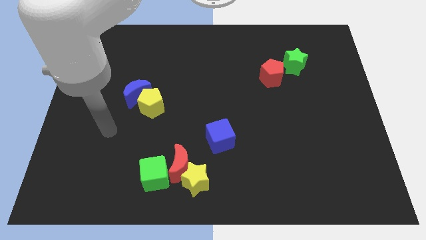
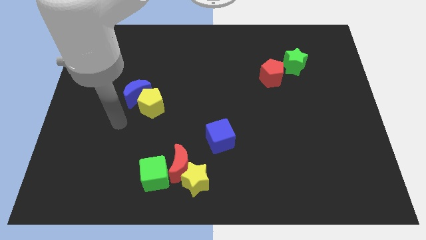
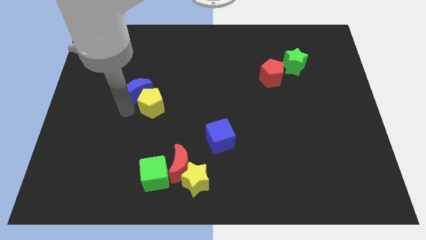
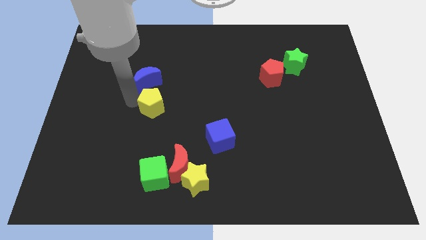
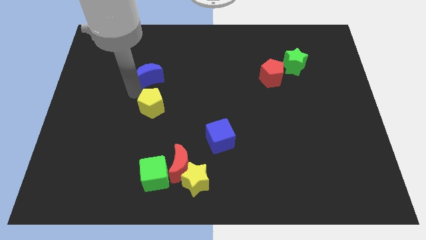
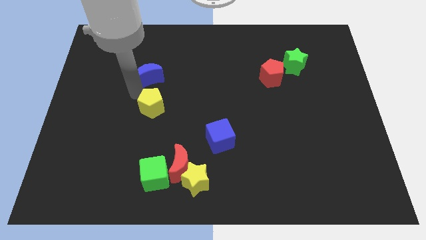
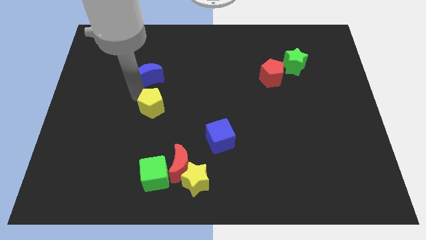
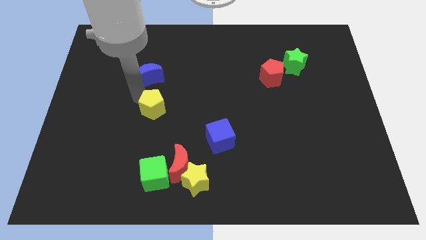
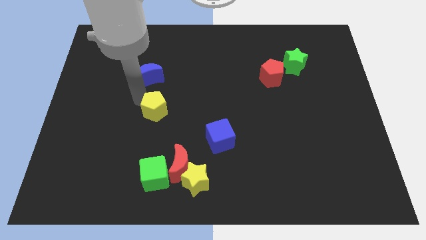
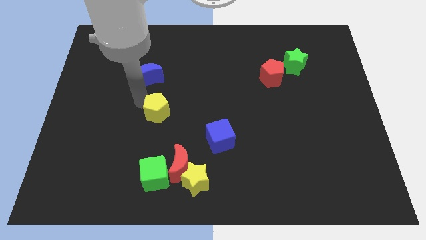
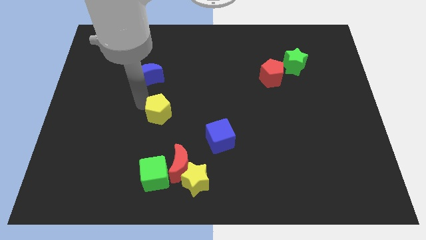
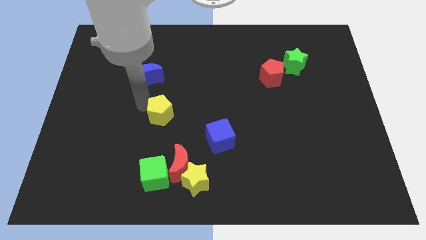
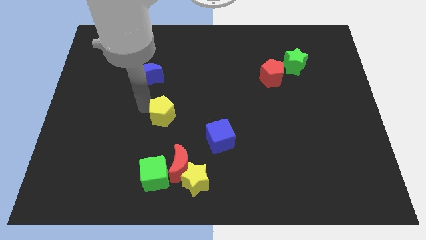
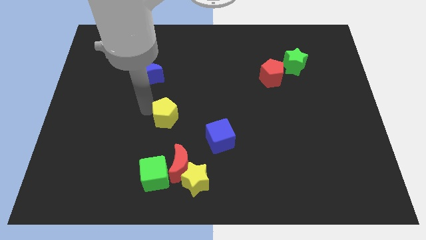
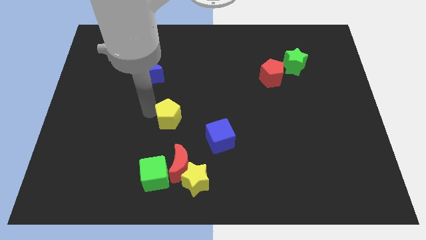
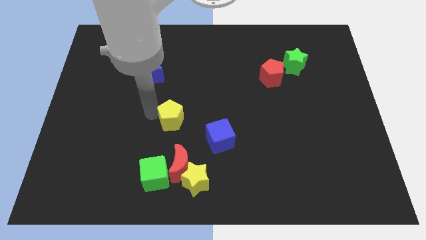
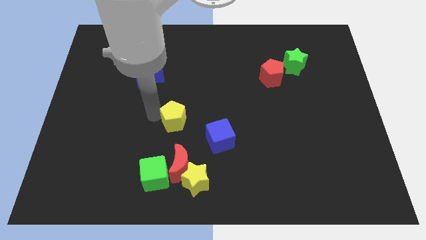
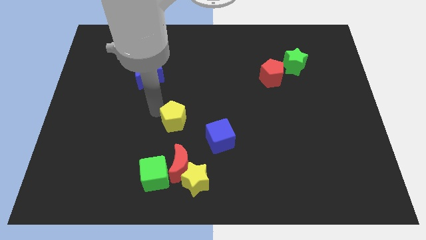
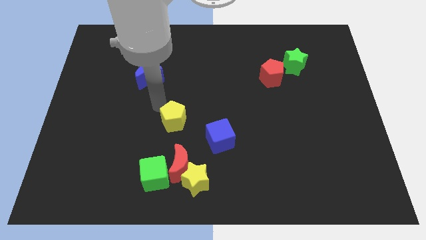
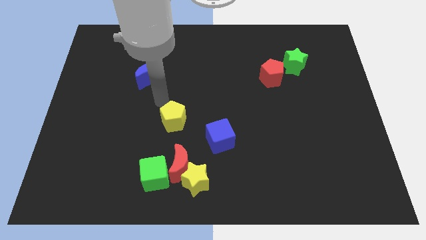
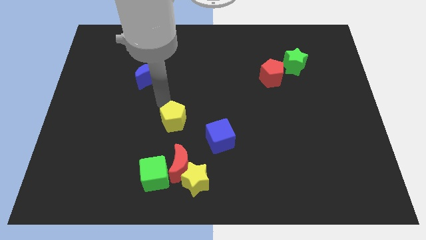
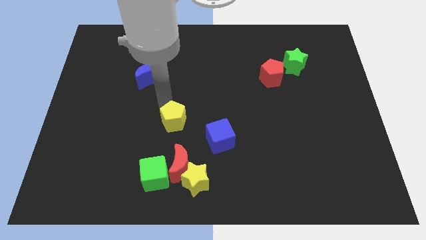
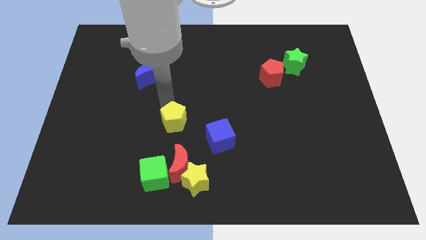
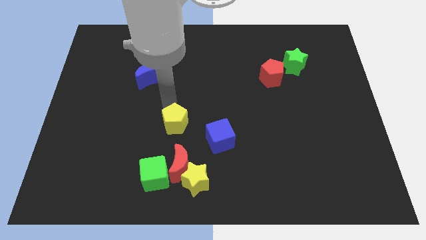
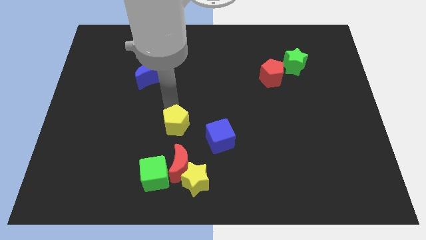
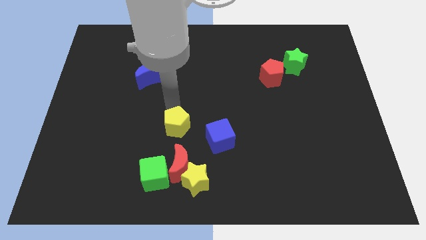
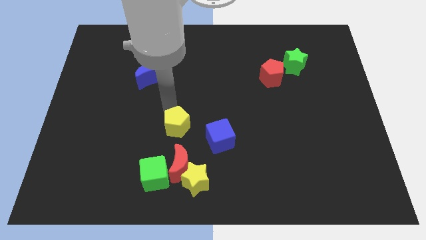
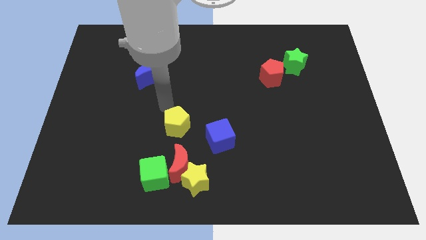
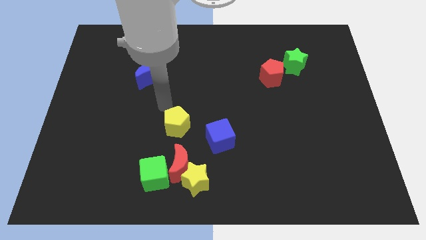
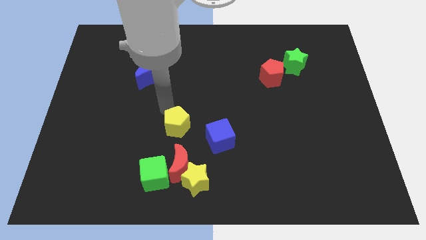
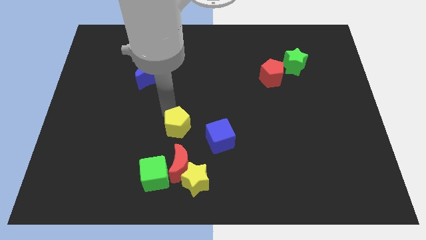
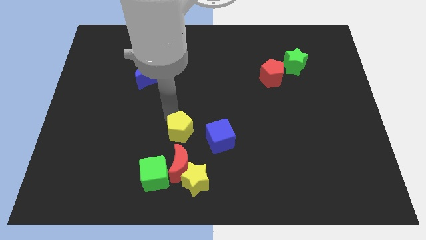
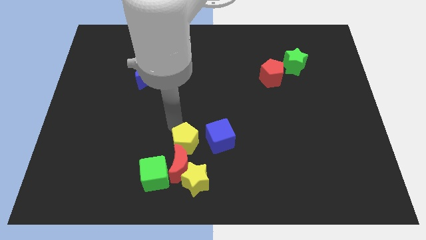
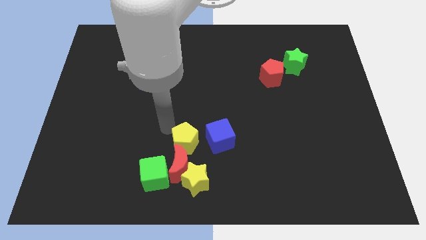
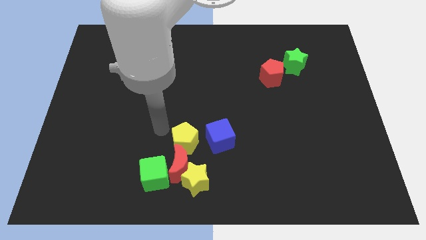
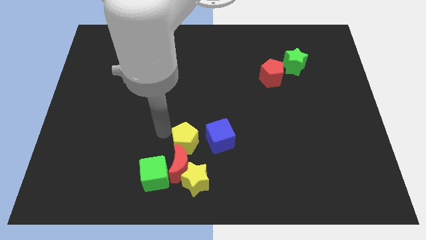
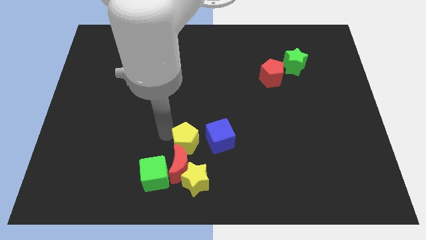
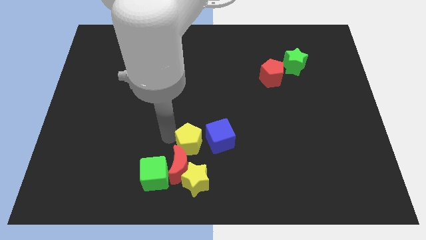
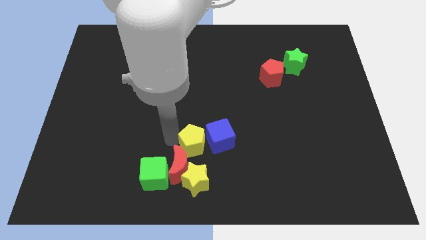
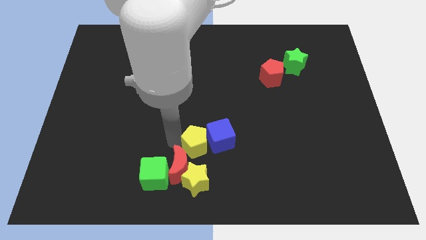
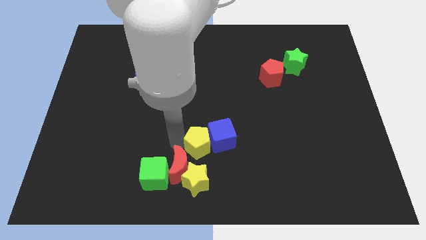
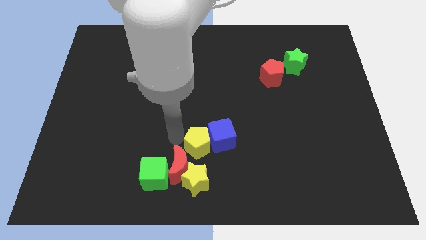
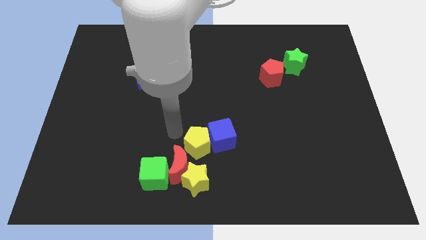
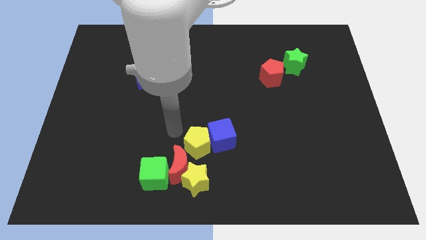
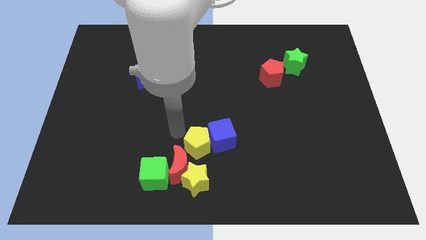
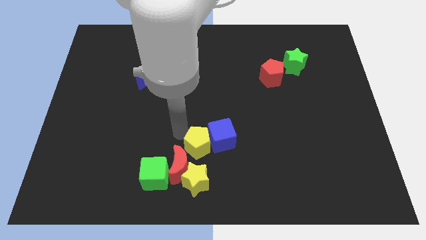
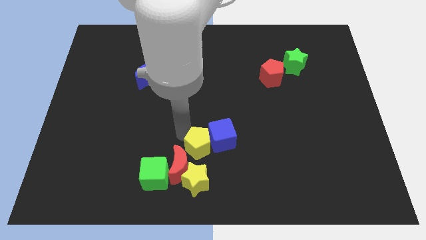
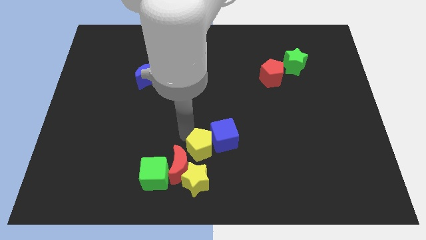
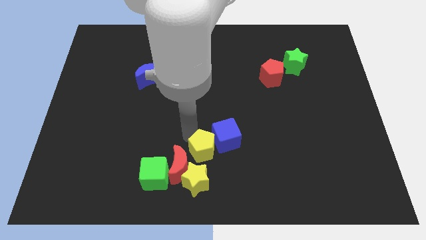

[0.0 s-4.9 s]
move the yellow pentagon to the top right side of the yellow star

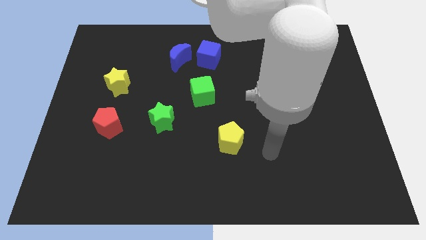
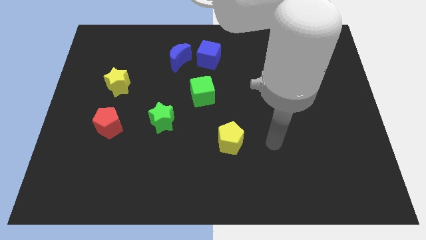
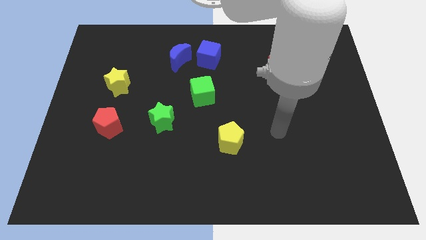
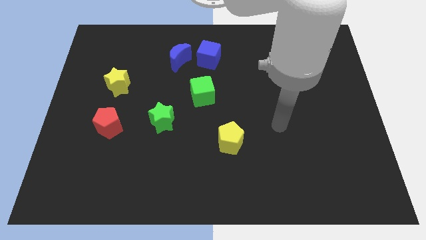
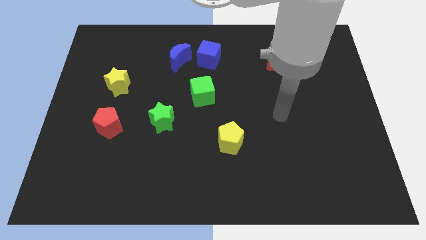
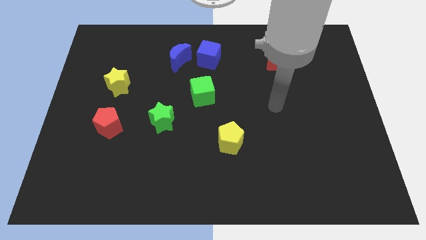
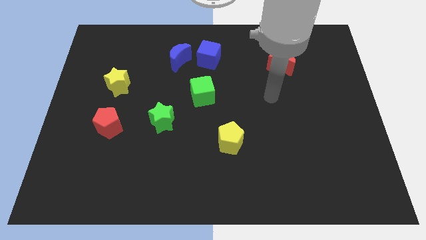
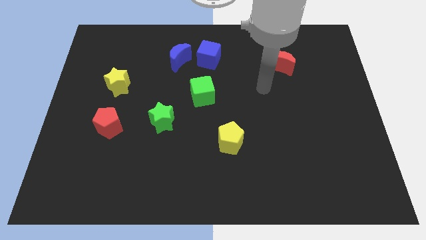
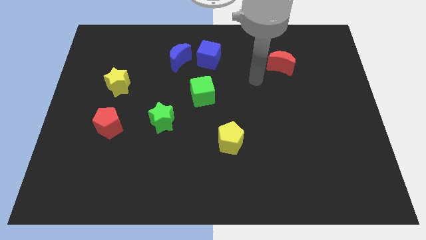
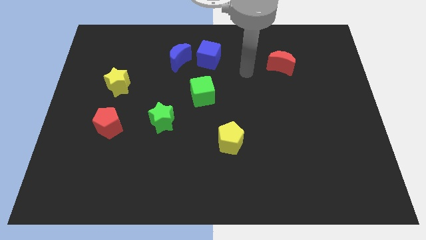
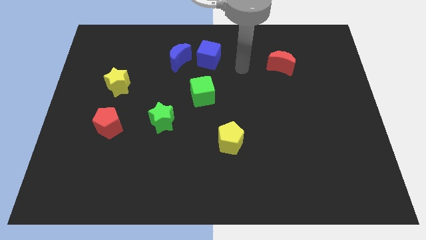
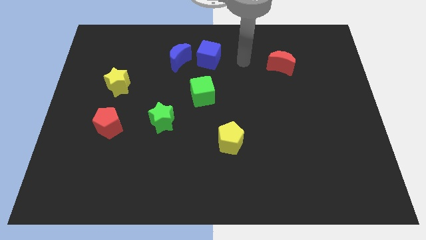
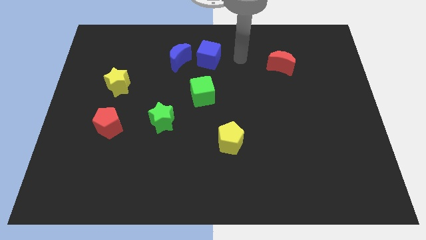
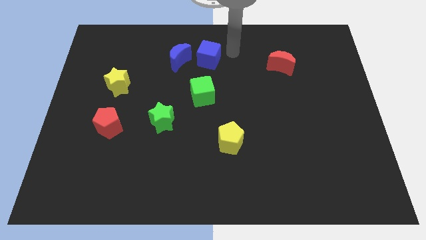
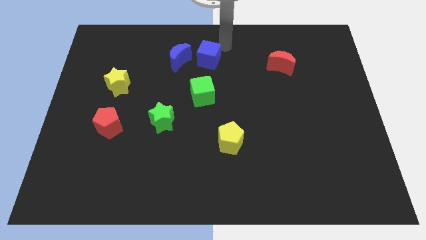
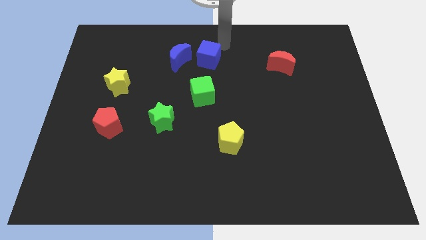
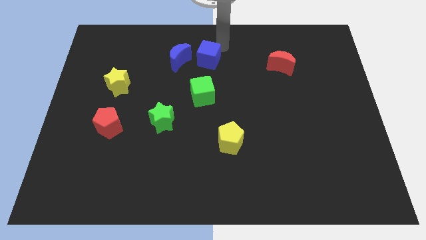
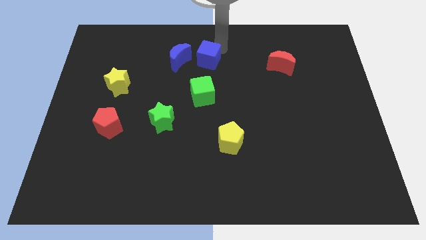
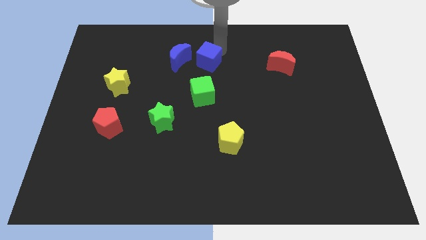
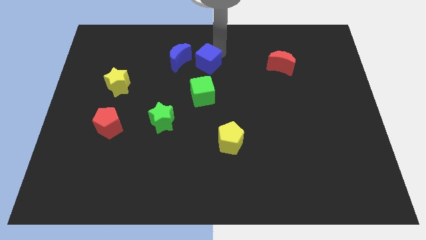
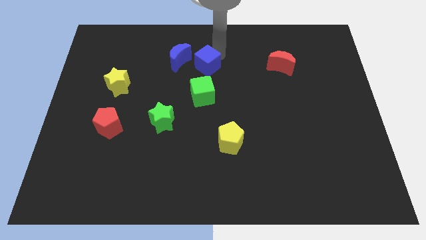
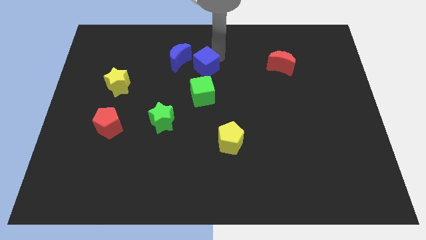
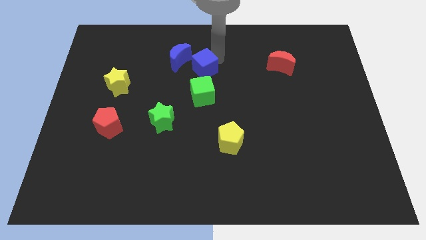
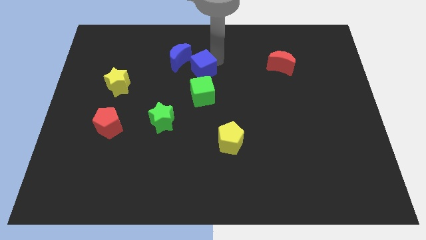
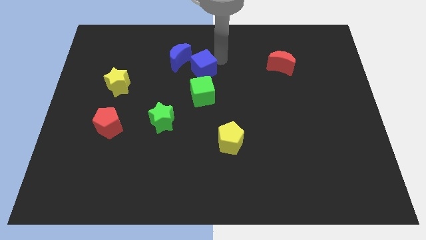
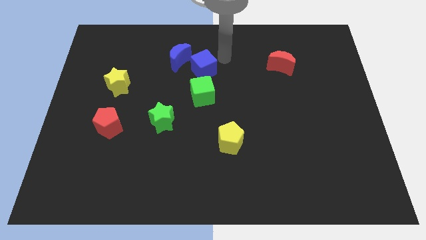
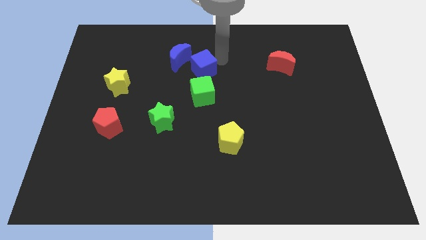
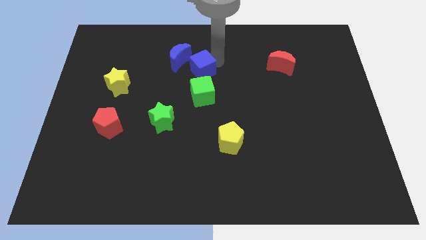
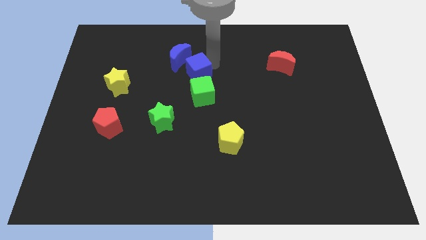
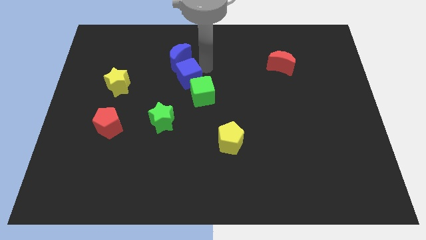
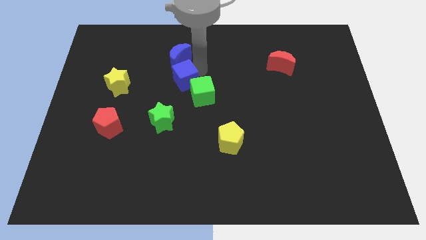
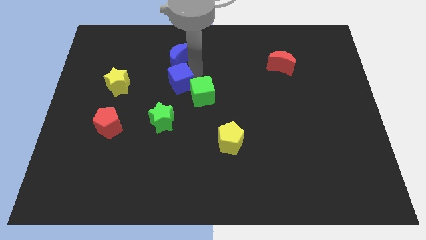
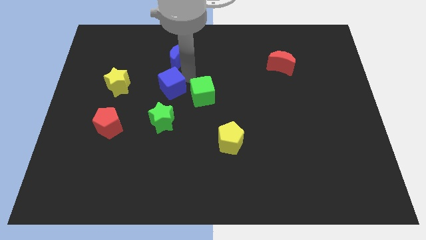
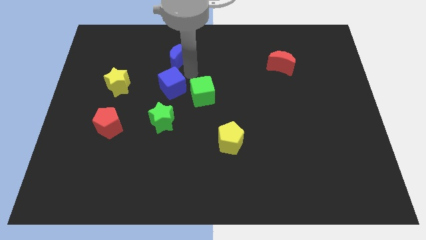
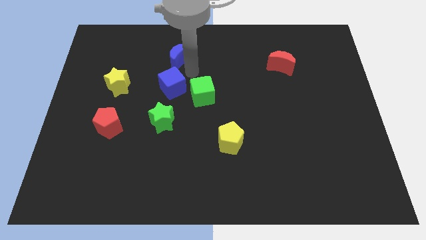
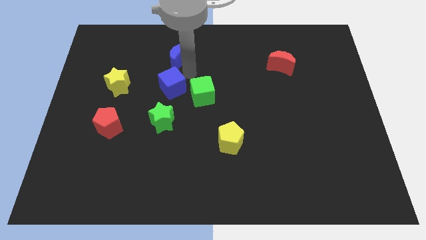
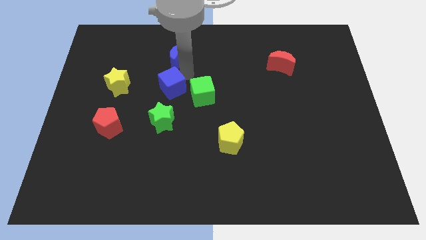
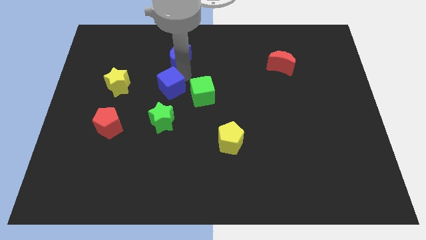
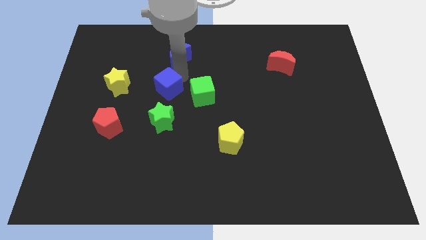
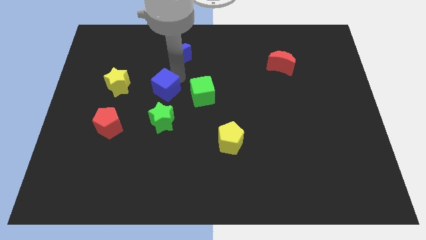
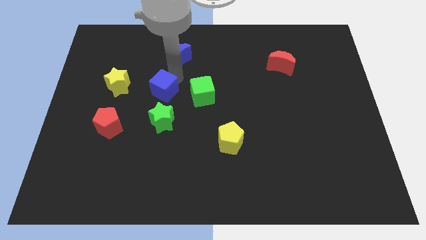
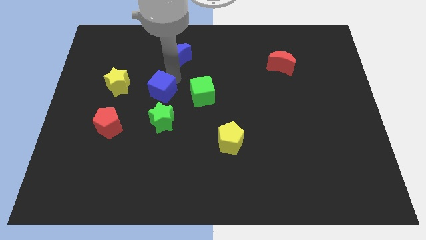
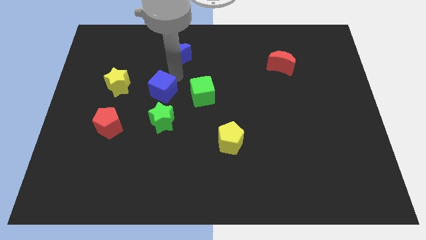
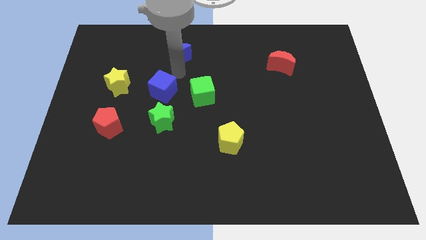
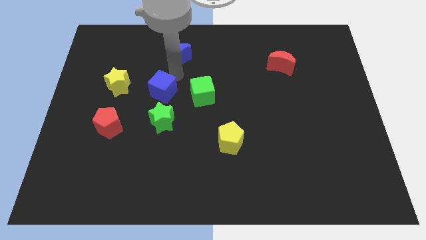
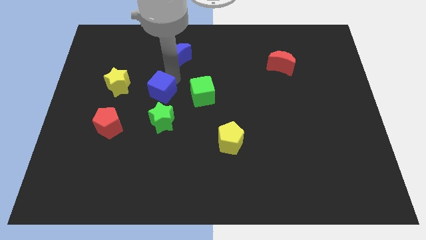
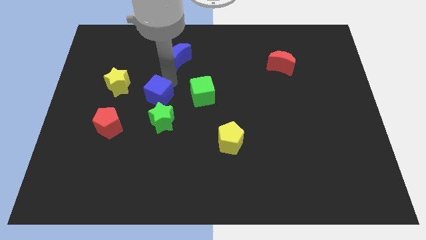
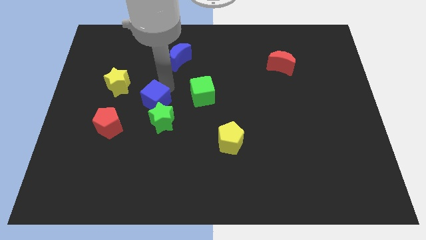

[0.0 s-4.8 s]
slide the blue cube to the top right of the red pentagon
